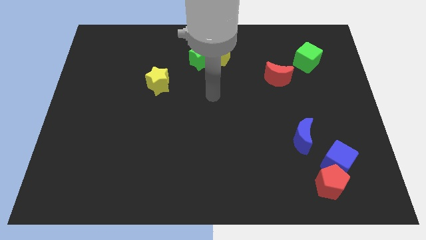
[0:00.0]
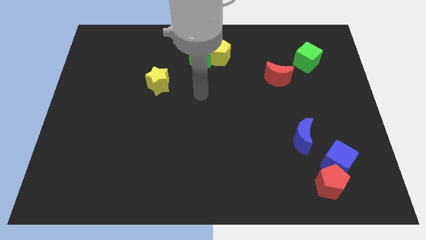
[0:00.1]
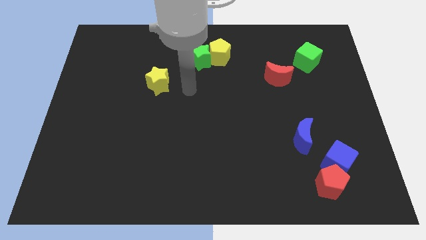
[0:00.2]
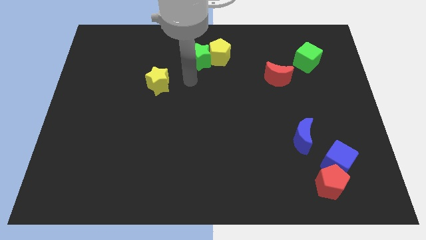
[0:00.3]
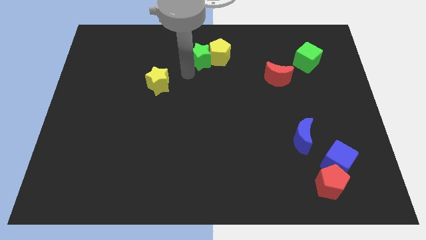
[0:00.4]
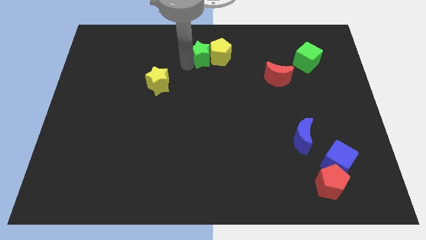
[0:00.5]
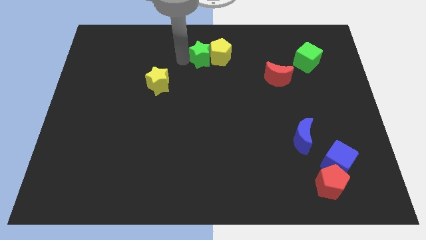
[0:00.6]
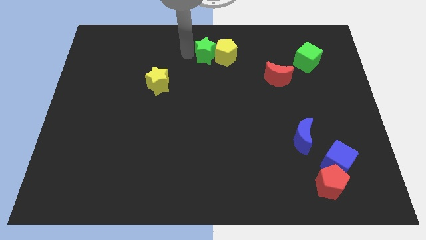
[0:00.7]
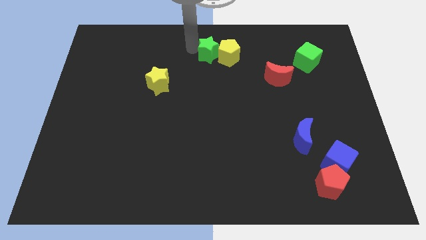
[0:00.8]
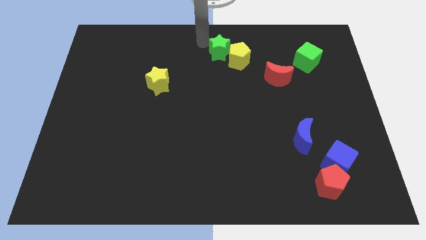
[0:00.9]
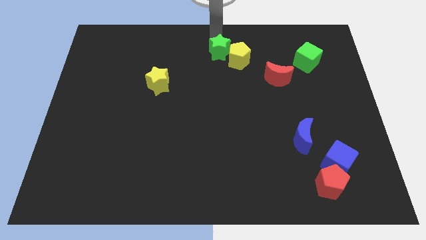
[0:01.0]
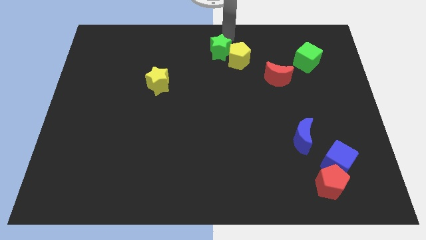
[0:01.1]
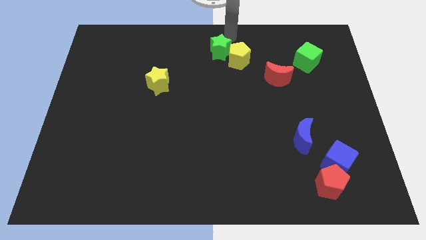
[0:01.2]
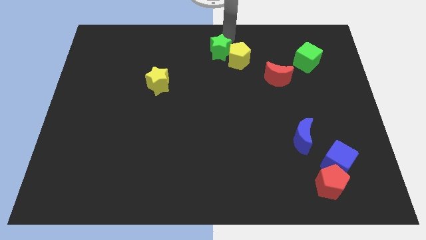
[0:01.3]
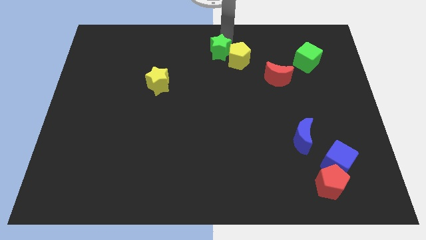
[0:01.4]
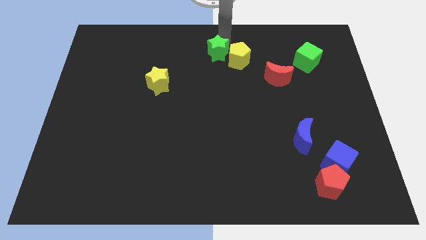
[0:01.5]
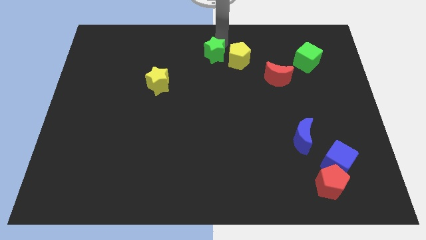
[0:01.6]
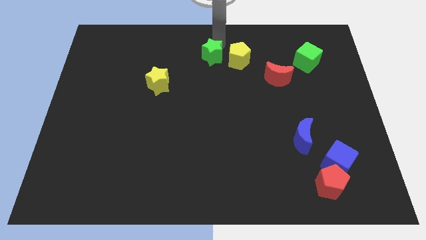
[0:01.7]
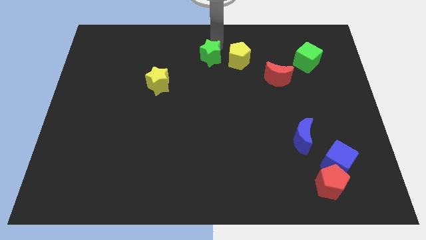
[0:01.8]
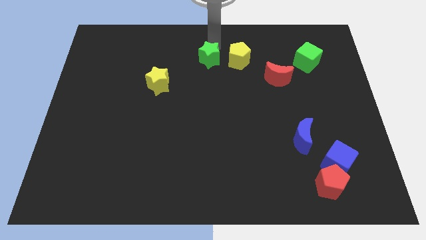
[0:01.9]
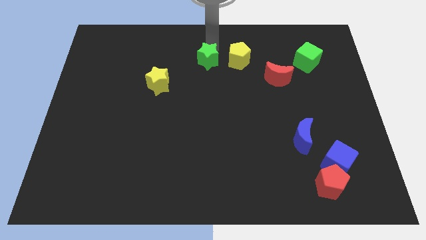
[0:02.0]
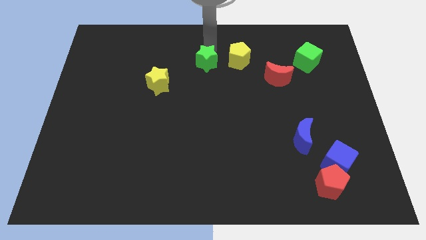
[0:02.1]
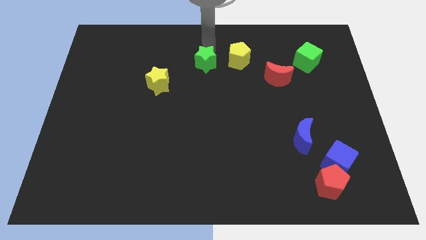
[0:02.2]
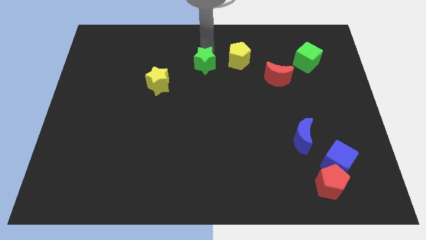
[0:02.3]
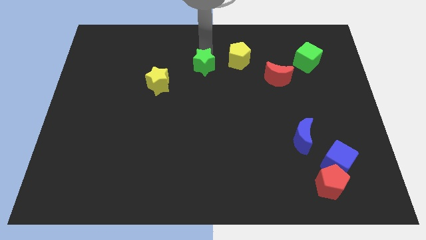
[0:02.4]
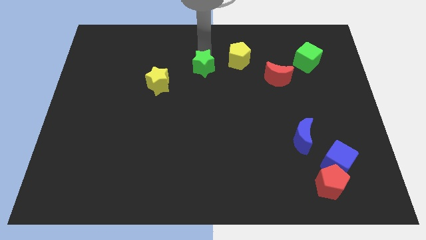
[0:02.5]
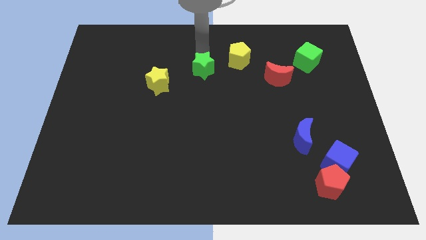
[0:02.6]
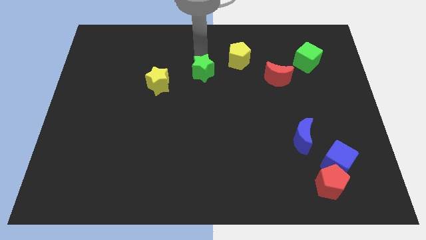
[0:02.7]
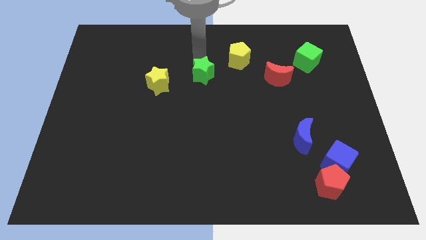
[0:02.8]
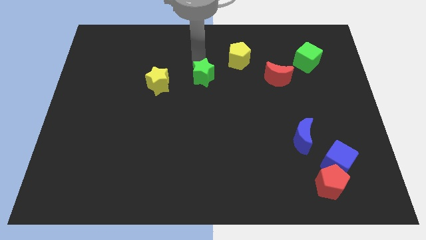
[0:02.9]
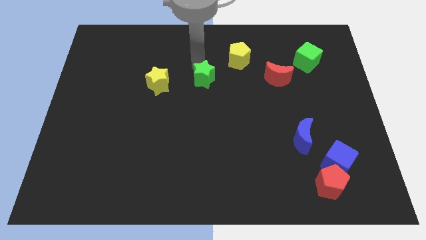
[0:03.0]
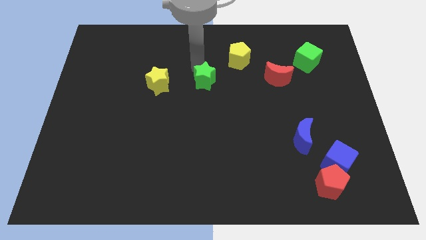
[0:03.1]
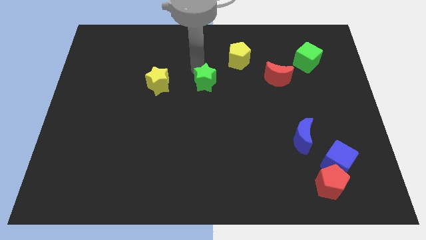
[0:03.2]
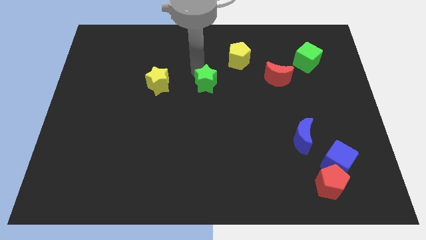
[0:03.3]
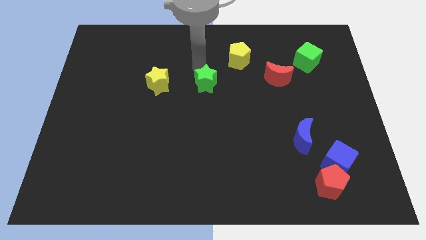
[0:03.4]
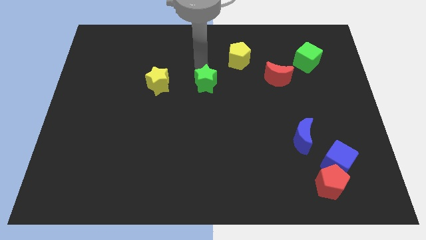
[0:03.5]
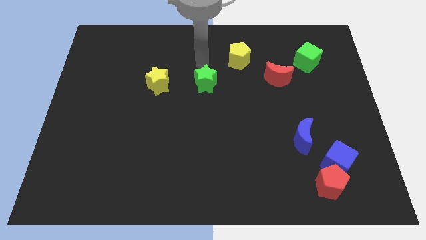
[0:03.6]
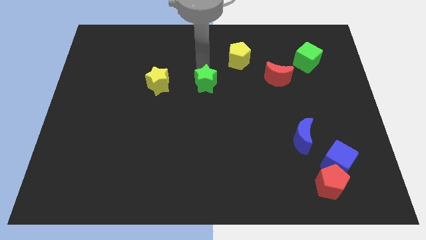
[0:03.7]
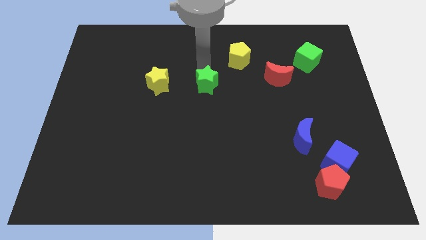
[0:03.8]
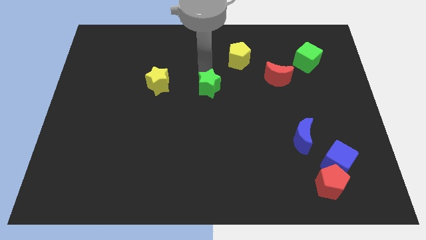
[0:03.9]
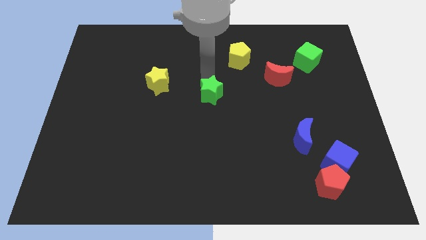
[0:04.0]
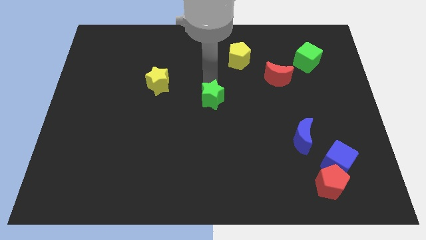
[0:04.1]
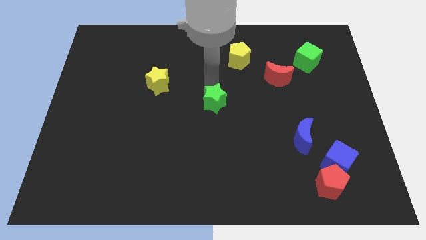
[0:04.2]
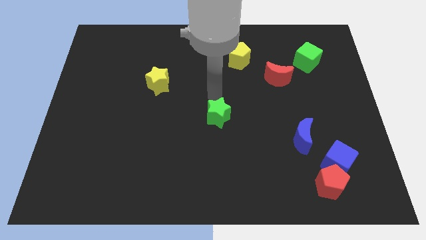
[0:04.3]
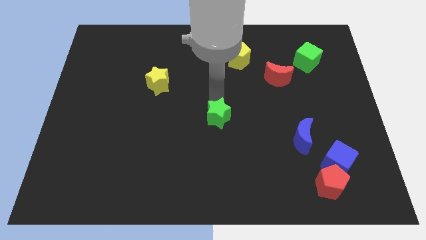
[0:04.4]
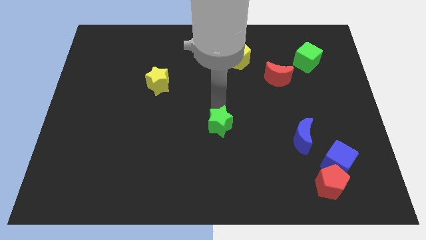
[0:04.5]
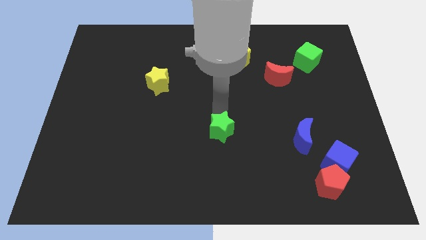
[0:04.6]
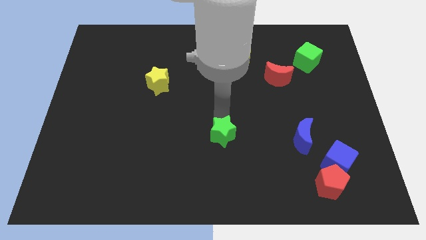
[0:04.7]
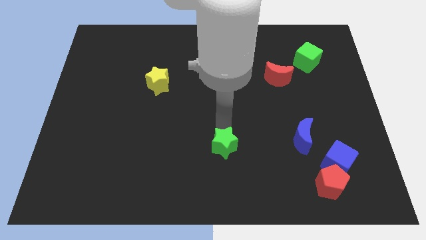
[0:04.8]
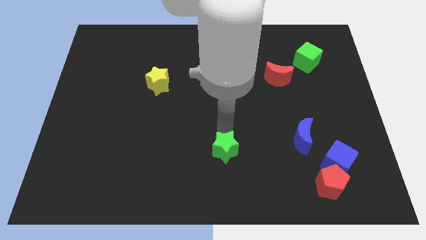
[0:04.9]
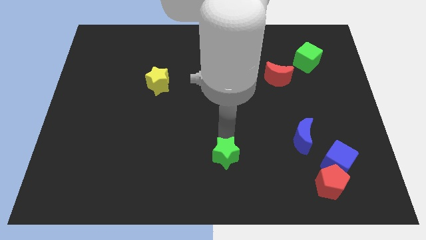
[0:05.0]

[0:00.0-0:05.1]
push the green star to the bottom

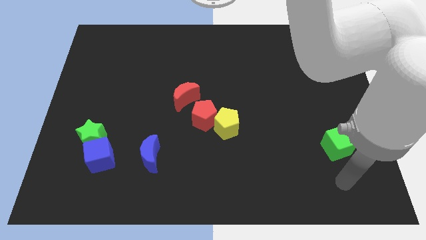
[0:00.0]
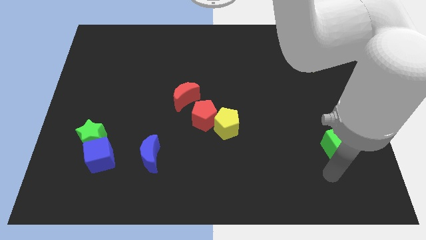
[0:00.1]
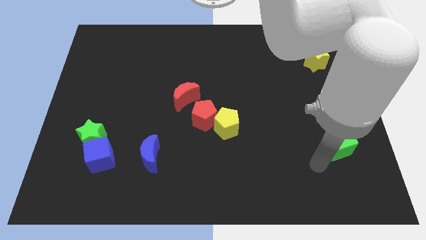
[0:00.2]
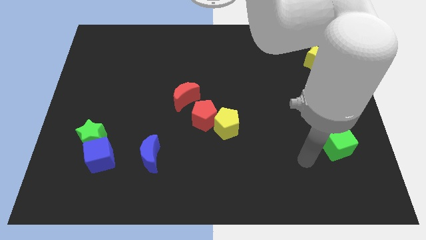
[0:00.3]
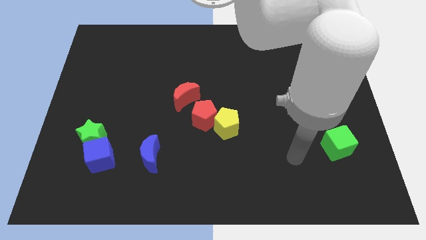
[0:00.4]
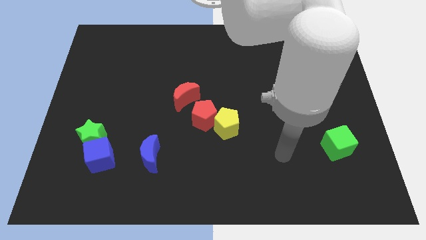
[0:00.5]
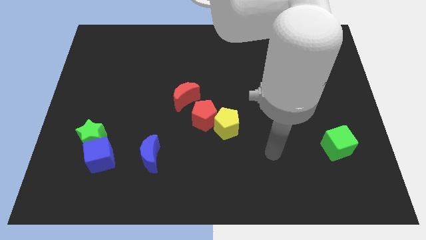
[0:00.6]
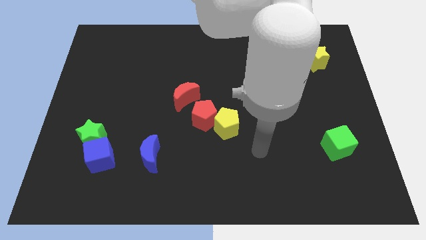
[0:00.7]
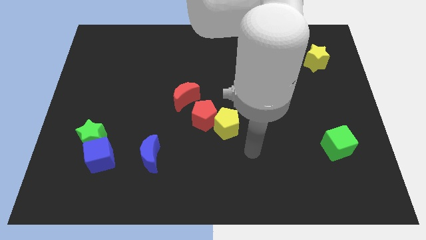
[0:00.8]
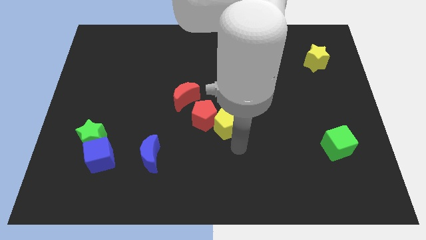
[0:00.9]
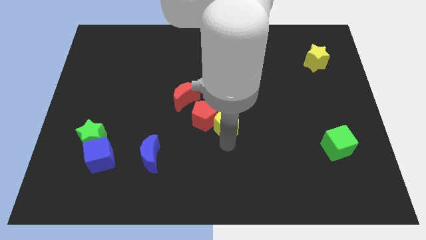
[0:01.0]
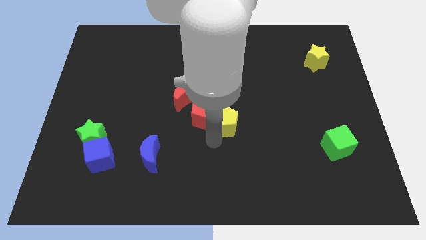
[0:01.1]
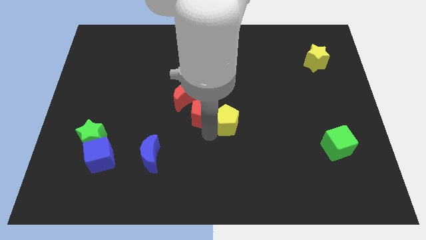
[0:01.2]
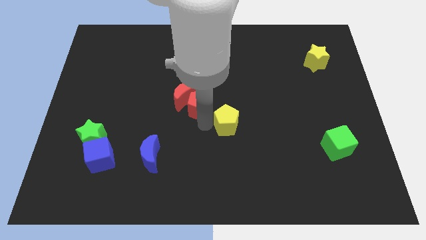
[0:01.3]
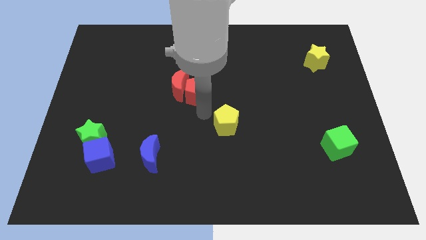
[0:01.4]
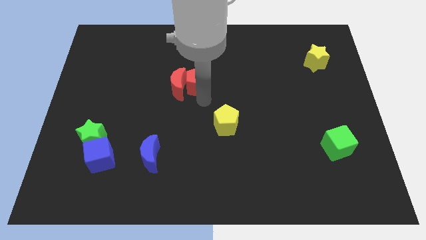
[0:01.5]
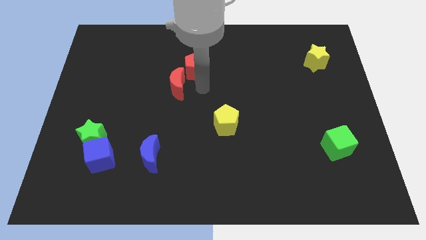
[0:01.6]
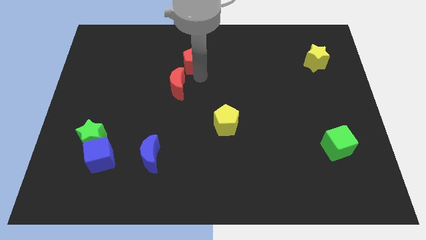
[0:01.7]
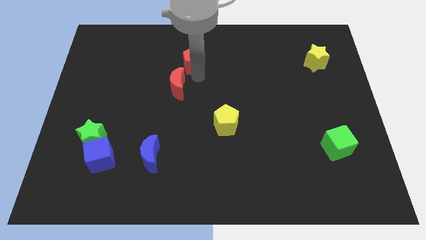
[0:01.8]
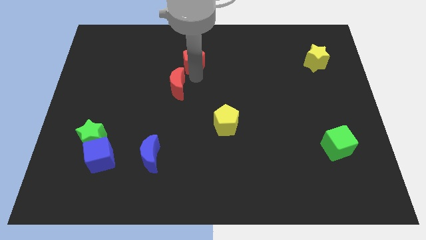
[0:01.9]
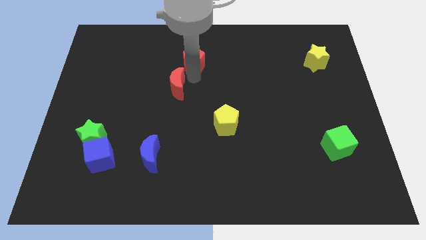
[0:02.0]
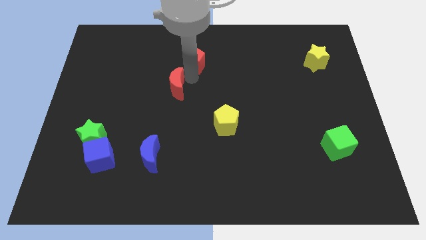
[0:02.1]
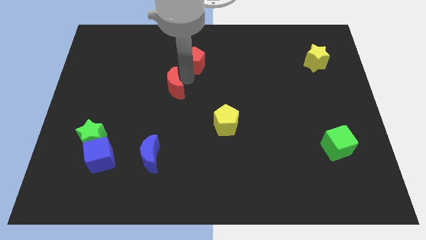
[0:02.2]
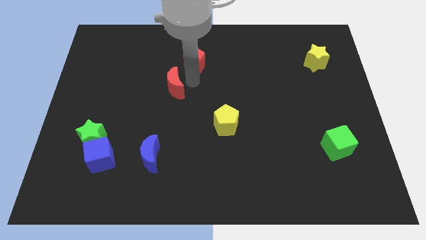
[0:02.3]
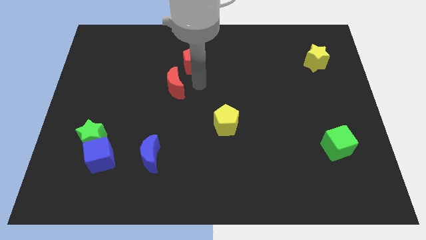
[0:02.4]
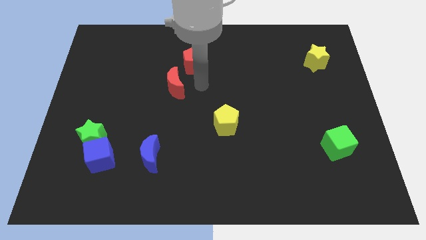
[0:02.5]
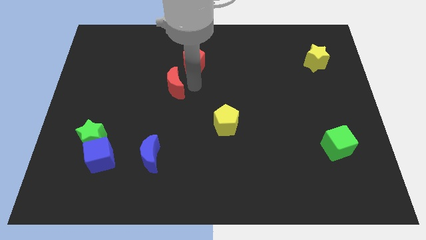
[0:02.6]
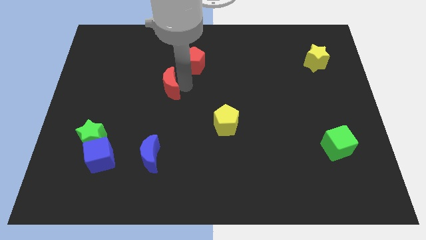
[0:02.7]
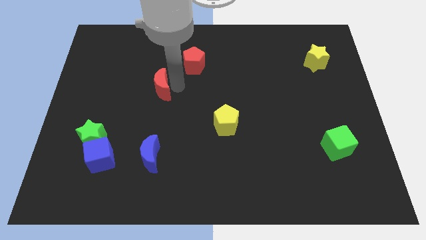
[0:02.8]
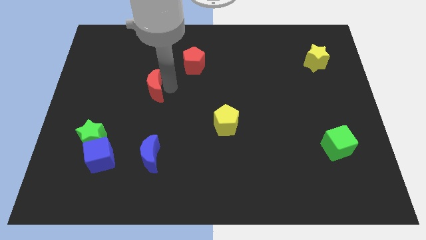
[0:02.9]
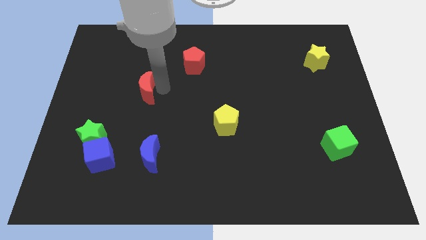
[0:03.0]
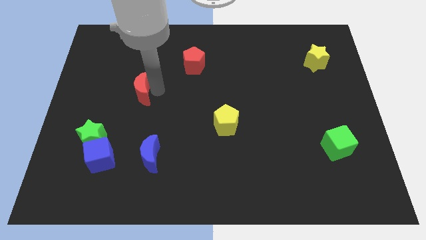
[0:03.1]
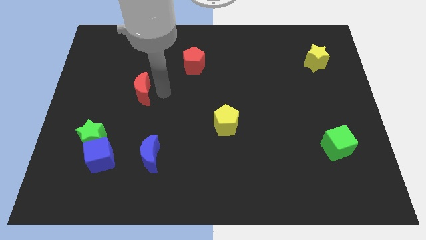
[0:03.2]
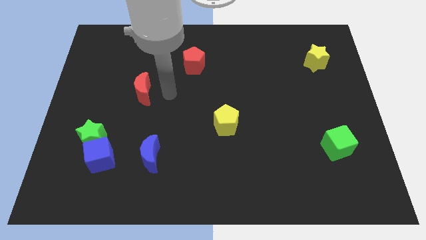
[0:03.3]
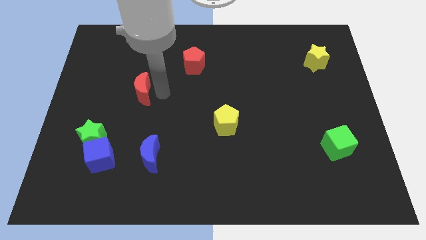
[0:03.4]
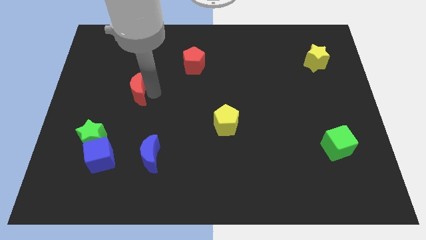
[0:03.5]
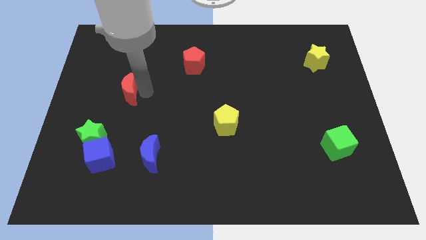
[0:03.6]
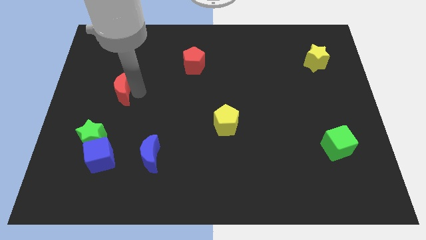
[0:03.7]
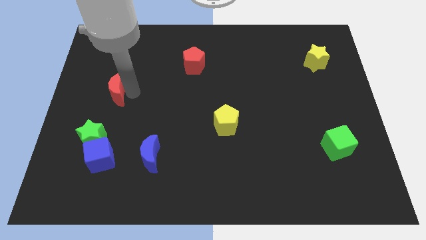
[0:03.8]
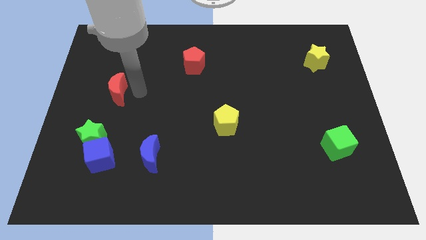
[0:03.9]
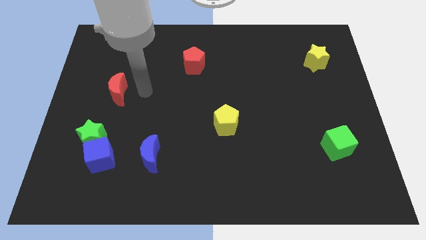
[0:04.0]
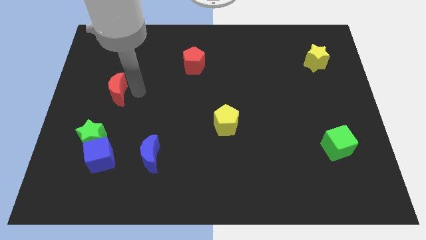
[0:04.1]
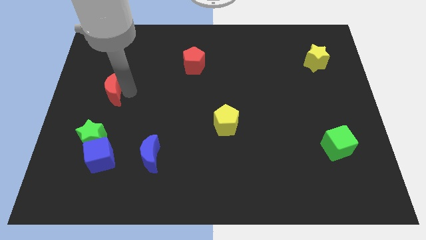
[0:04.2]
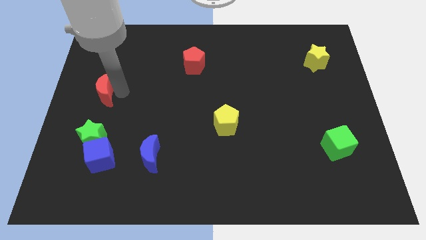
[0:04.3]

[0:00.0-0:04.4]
put the red moon to the center left
